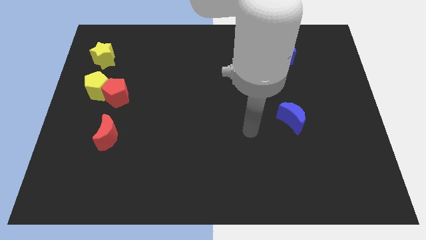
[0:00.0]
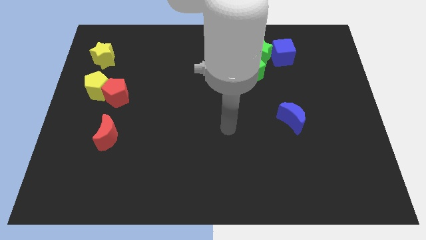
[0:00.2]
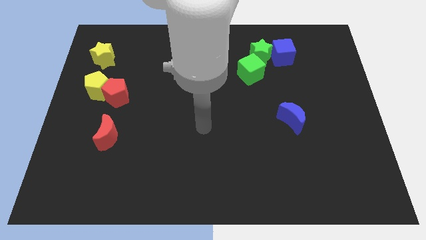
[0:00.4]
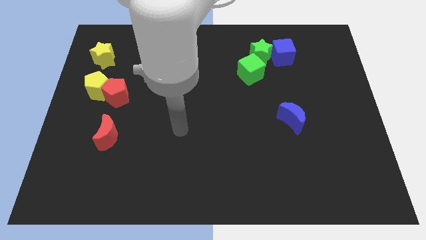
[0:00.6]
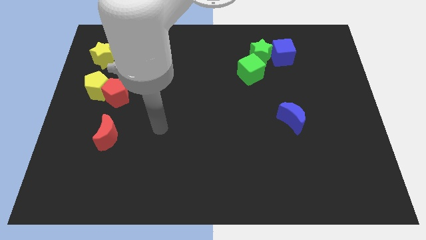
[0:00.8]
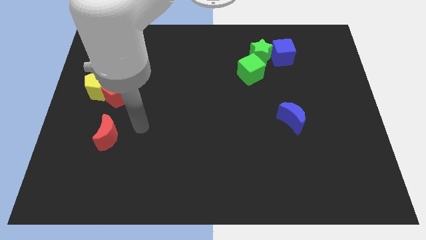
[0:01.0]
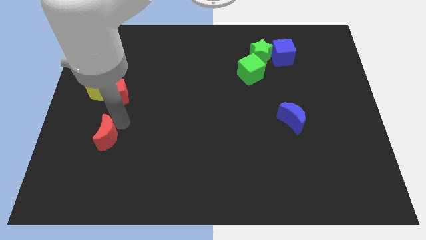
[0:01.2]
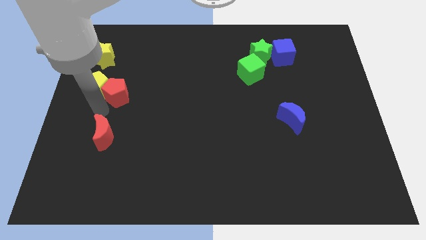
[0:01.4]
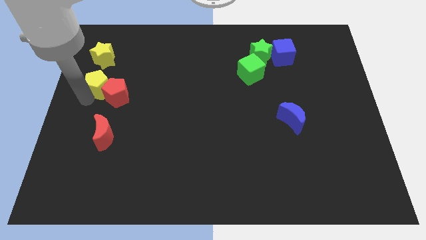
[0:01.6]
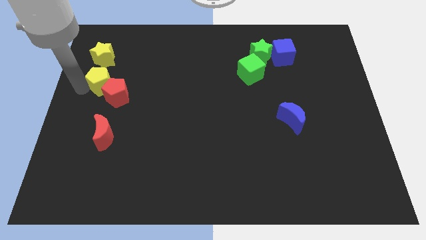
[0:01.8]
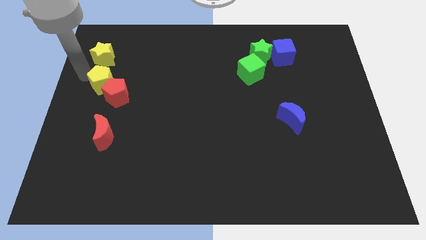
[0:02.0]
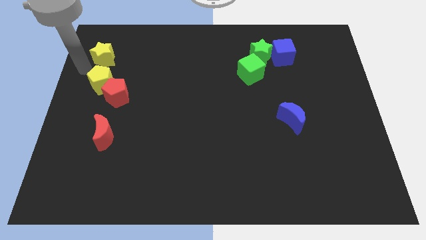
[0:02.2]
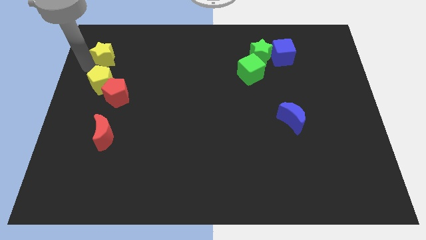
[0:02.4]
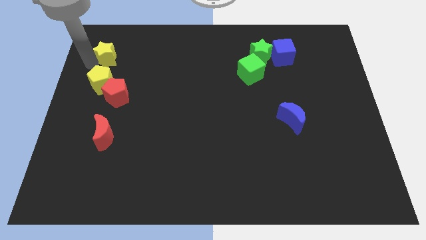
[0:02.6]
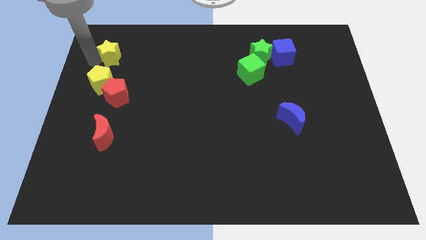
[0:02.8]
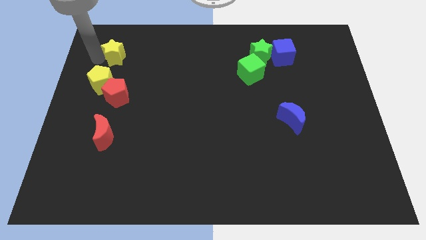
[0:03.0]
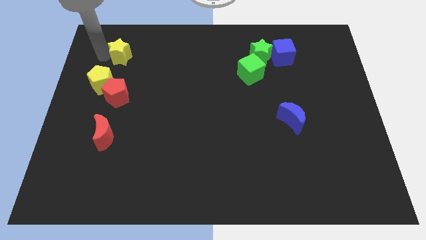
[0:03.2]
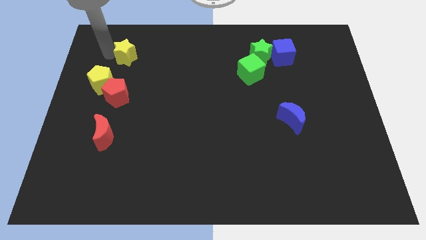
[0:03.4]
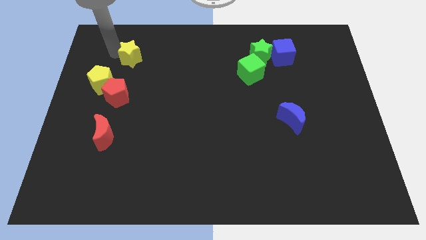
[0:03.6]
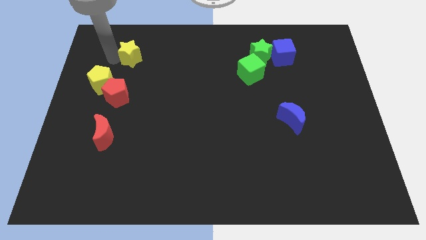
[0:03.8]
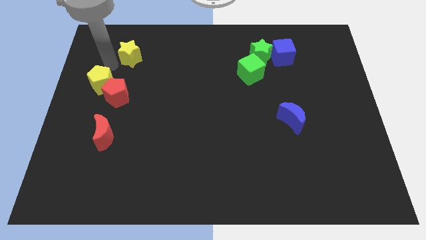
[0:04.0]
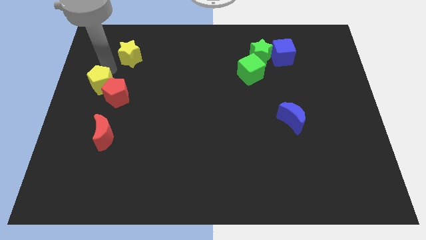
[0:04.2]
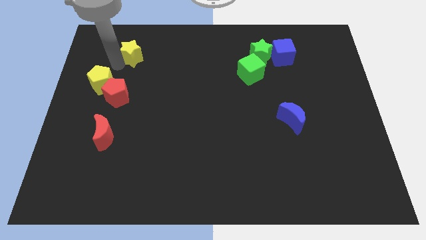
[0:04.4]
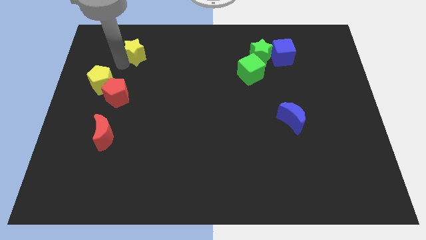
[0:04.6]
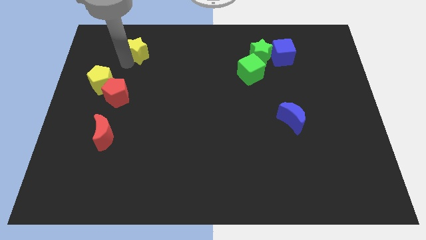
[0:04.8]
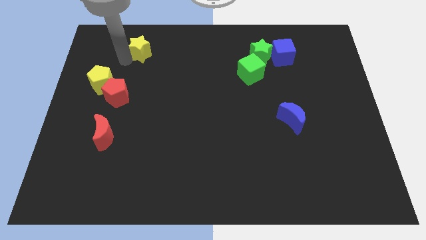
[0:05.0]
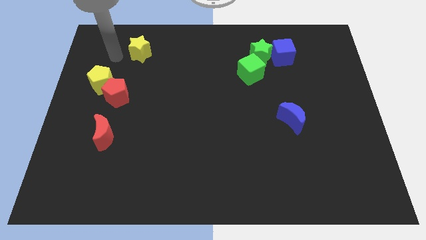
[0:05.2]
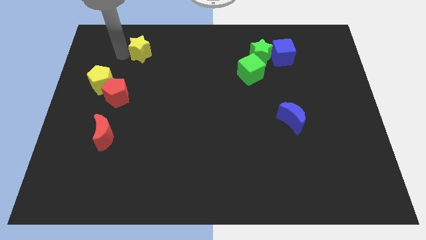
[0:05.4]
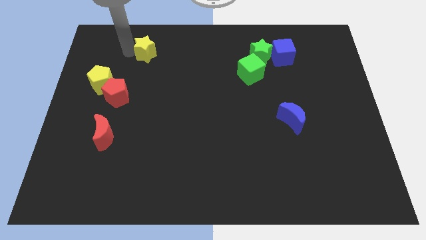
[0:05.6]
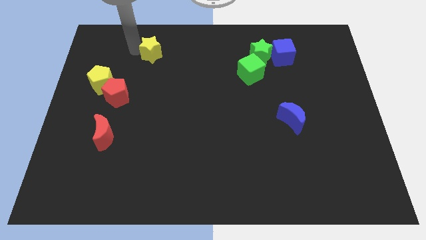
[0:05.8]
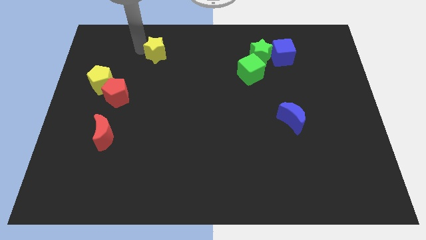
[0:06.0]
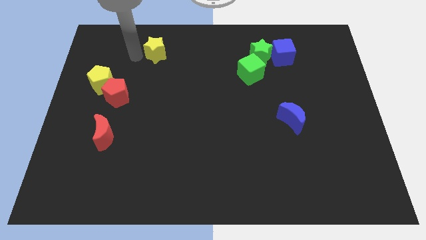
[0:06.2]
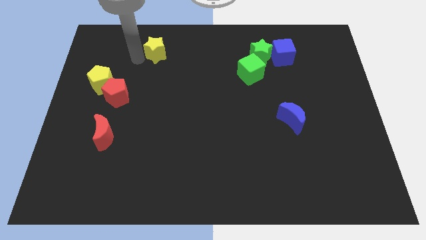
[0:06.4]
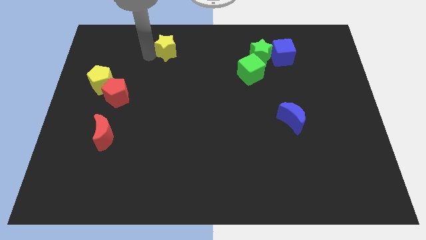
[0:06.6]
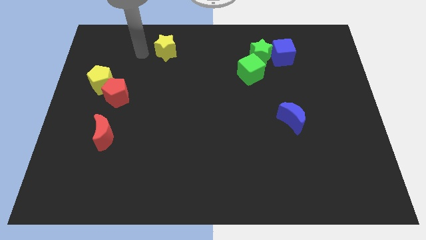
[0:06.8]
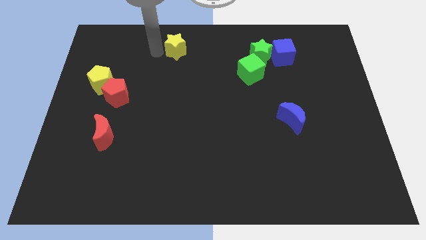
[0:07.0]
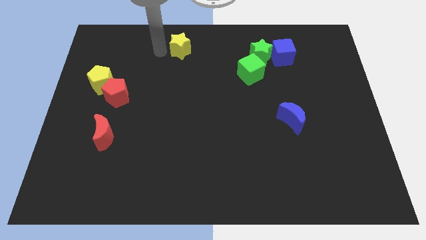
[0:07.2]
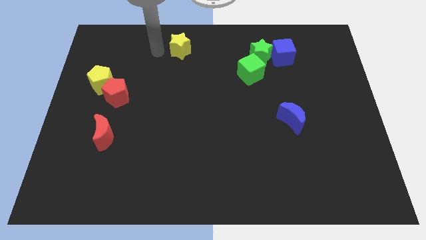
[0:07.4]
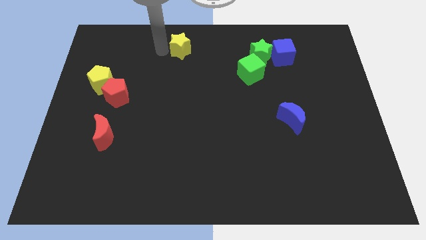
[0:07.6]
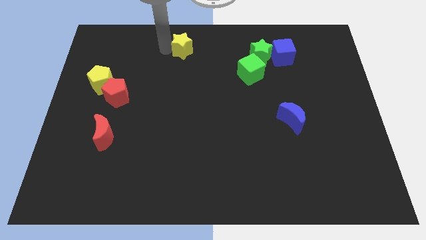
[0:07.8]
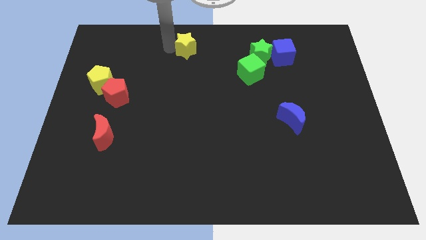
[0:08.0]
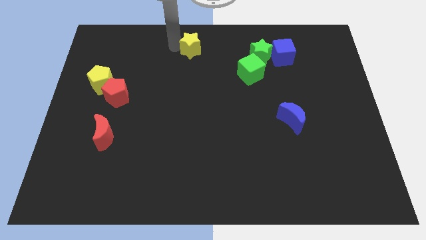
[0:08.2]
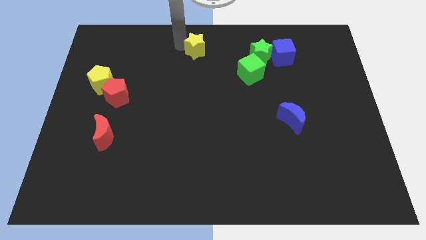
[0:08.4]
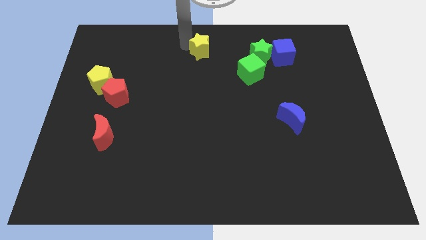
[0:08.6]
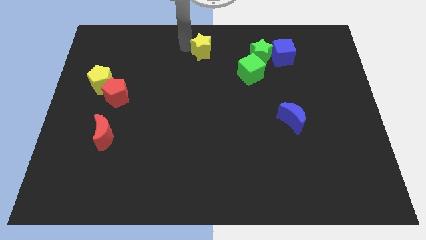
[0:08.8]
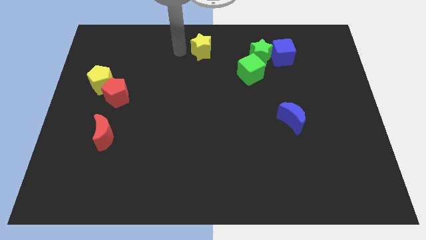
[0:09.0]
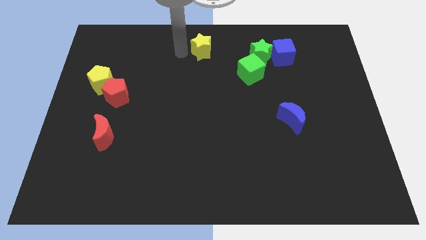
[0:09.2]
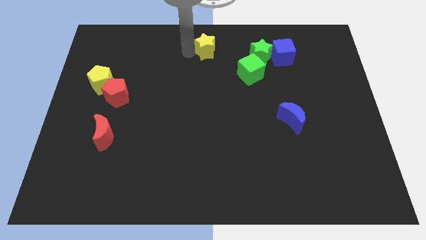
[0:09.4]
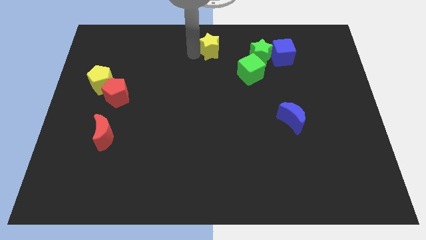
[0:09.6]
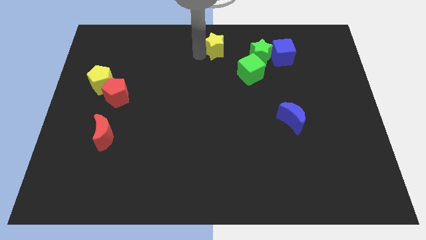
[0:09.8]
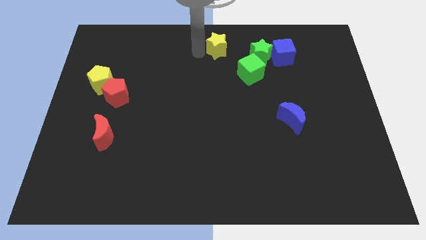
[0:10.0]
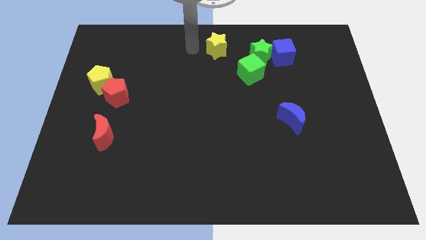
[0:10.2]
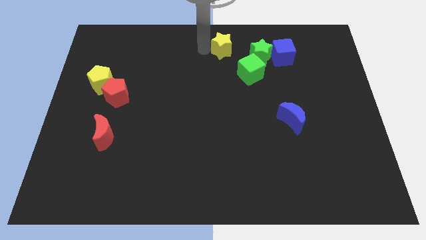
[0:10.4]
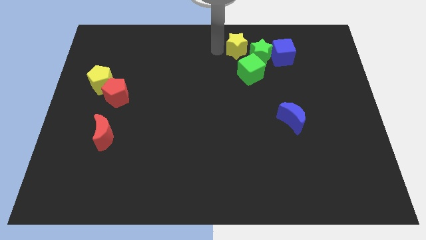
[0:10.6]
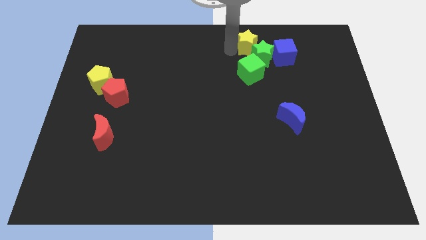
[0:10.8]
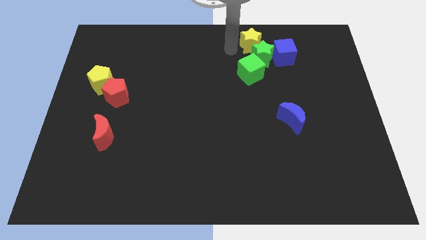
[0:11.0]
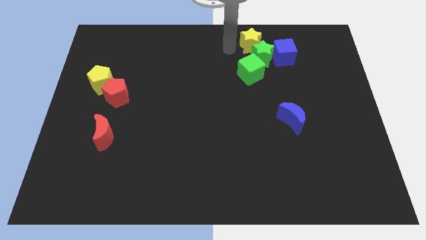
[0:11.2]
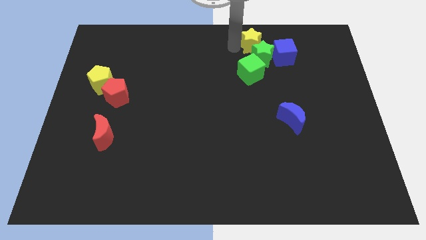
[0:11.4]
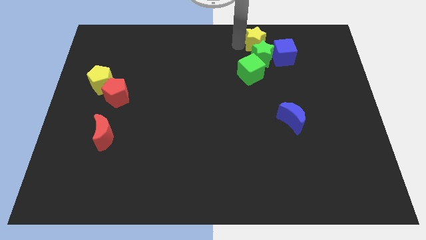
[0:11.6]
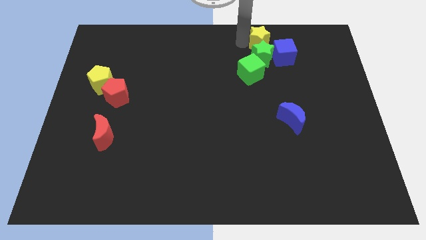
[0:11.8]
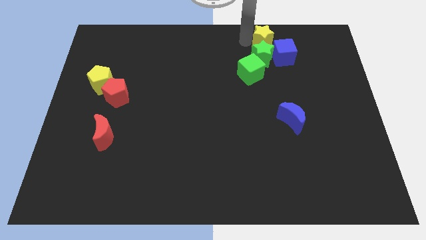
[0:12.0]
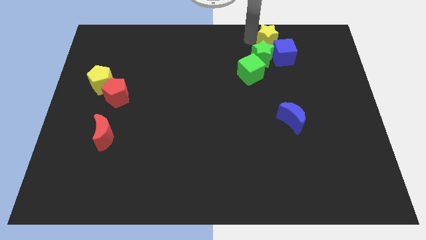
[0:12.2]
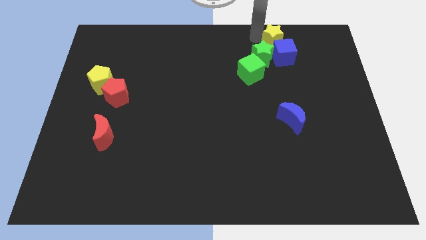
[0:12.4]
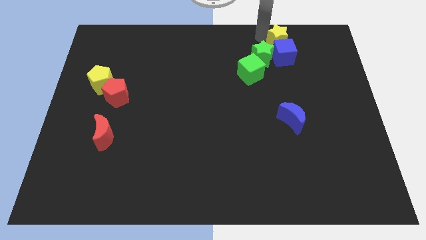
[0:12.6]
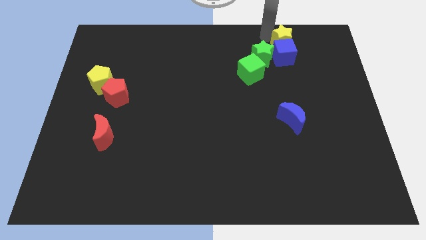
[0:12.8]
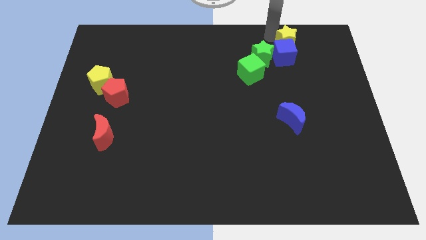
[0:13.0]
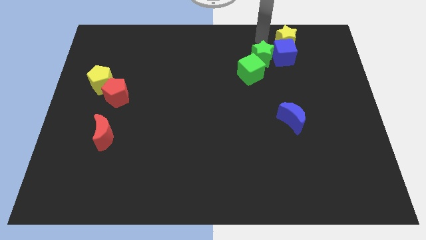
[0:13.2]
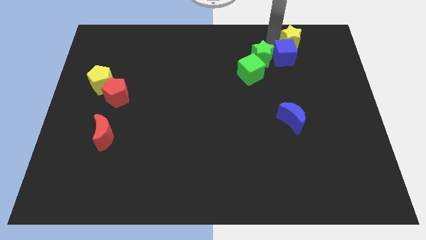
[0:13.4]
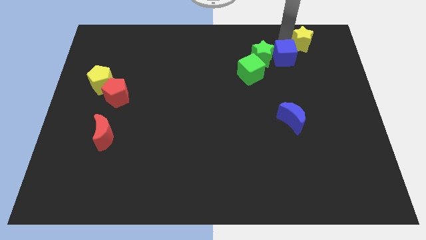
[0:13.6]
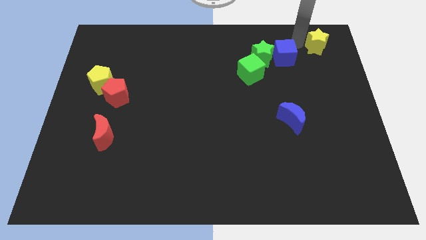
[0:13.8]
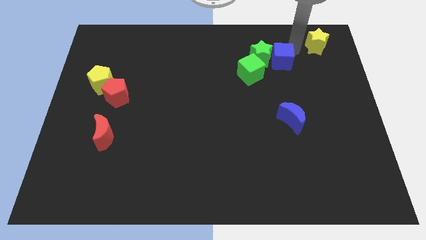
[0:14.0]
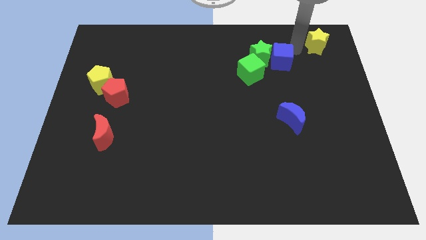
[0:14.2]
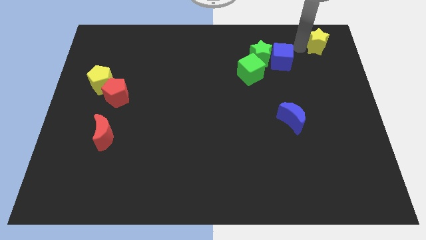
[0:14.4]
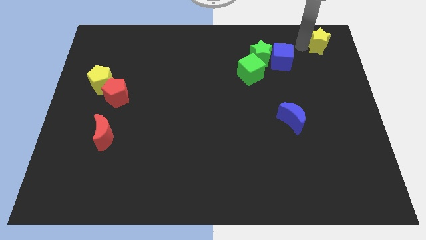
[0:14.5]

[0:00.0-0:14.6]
slide the yellow star to the top right
